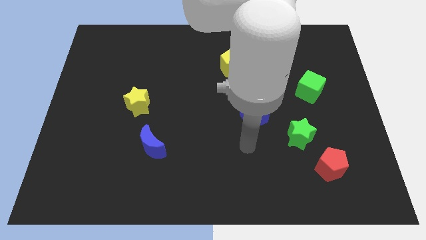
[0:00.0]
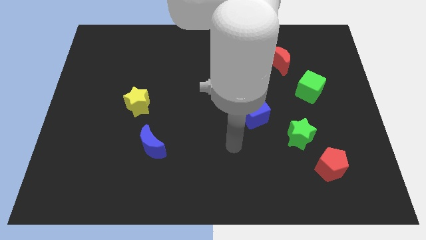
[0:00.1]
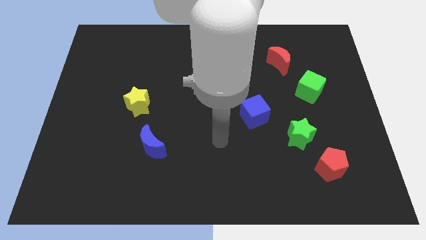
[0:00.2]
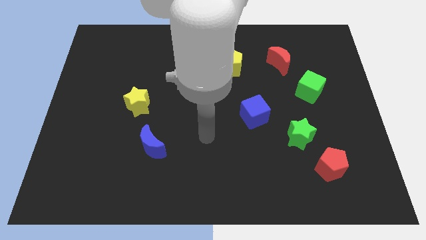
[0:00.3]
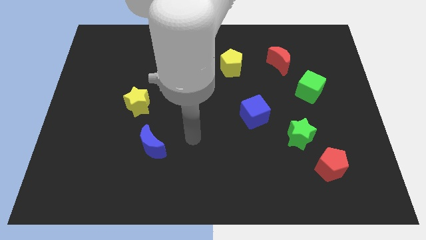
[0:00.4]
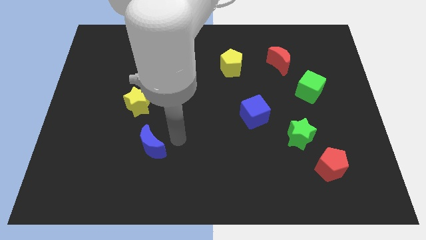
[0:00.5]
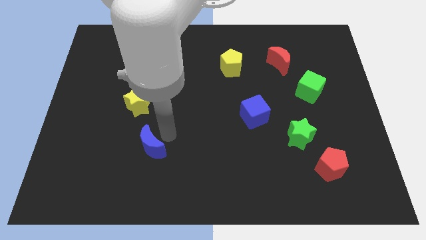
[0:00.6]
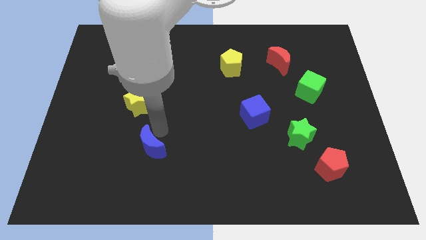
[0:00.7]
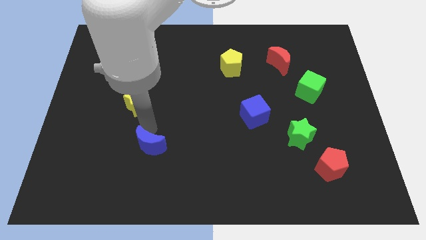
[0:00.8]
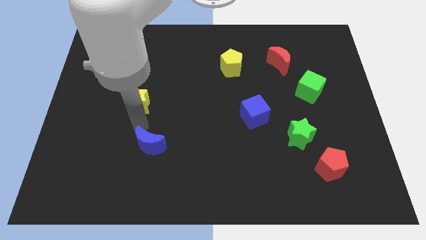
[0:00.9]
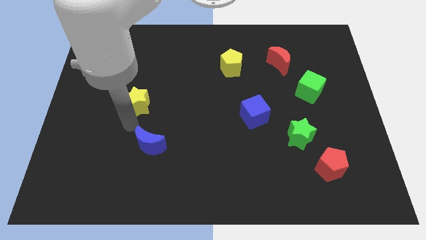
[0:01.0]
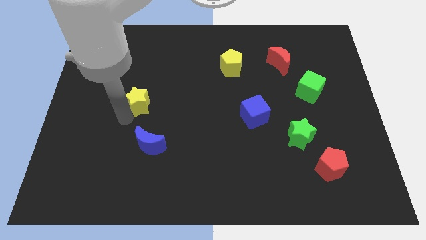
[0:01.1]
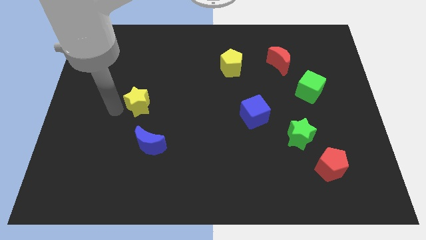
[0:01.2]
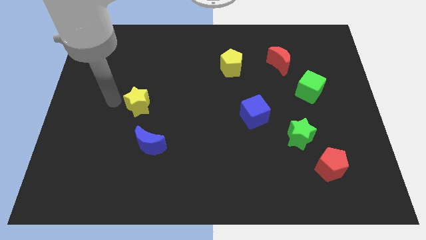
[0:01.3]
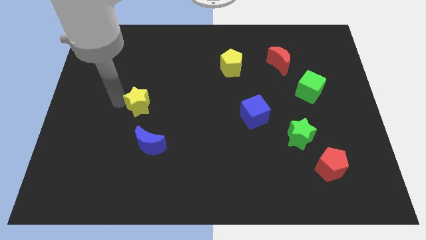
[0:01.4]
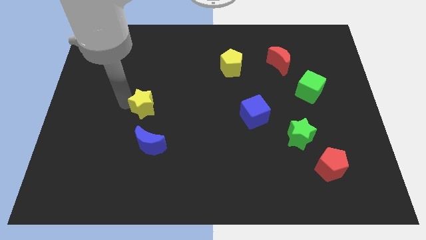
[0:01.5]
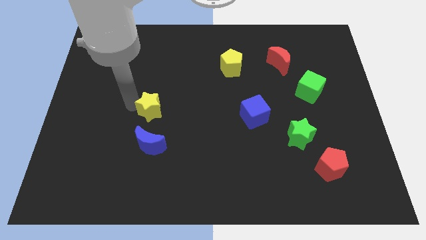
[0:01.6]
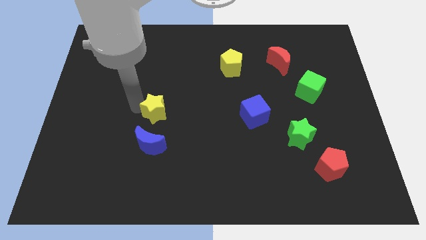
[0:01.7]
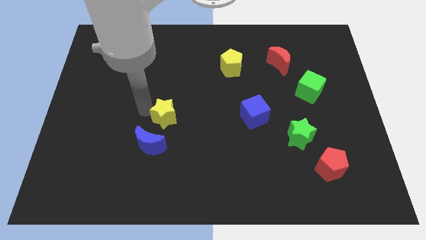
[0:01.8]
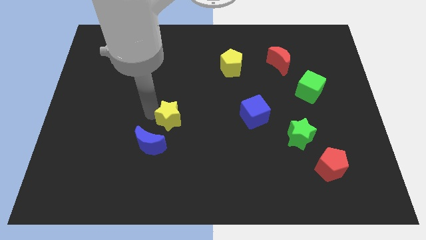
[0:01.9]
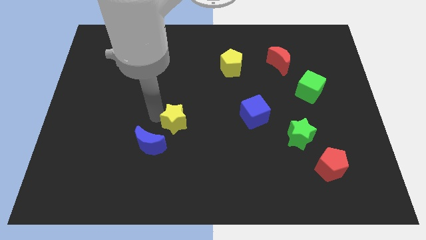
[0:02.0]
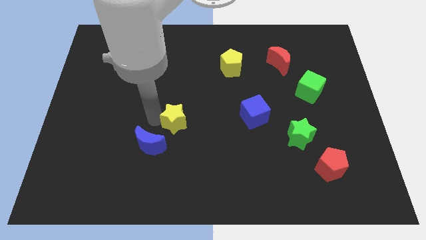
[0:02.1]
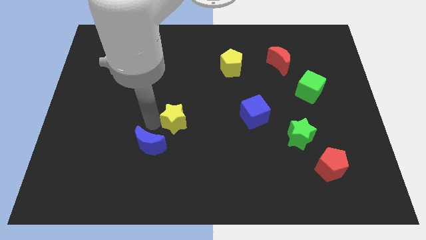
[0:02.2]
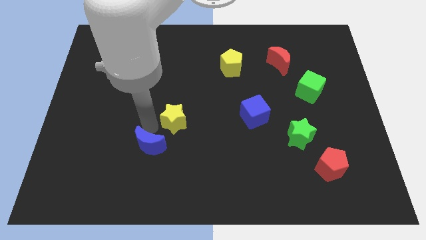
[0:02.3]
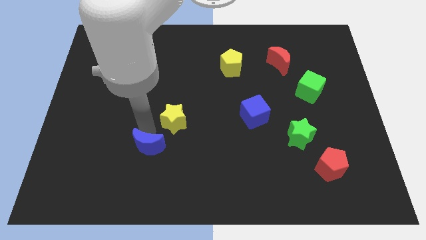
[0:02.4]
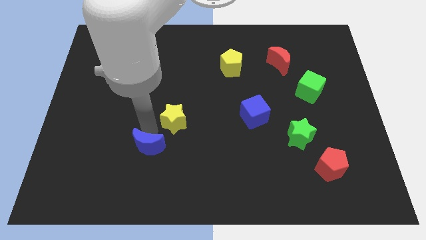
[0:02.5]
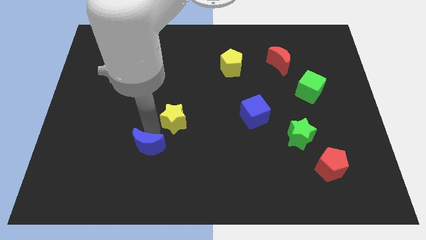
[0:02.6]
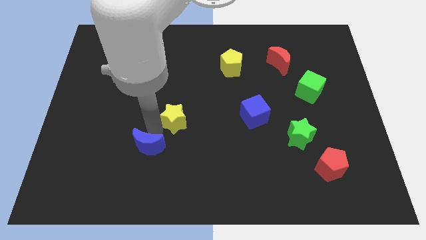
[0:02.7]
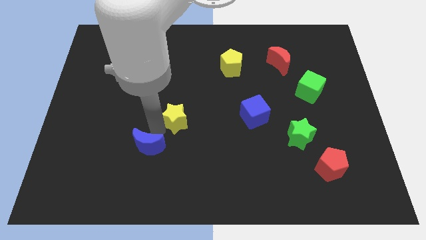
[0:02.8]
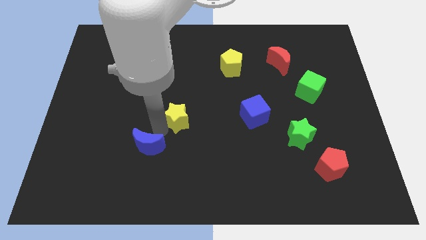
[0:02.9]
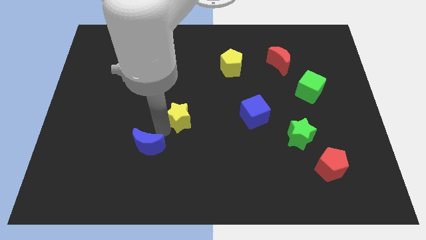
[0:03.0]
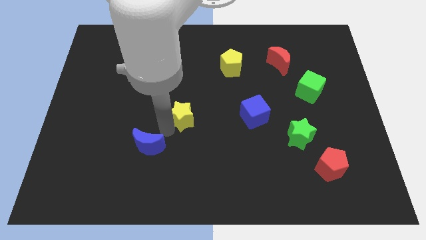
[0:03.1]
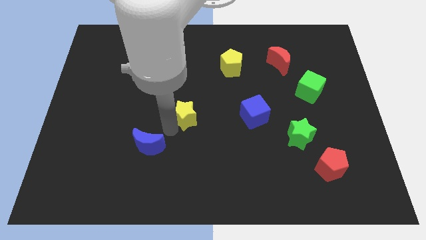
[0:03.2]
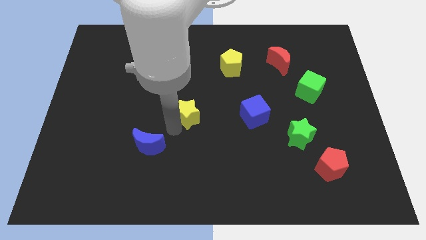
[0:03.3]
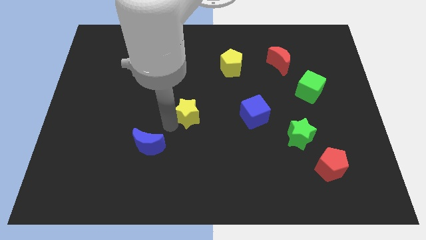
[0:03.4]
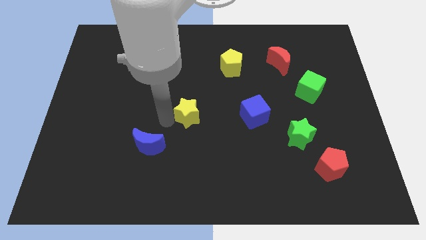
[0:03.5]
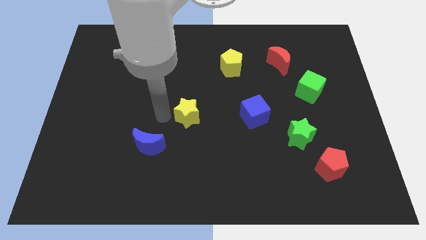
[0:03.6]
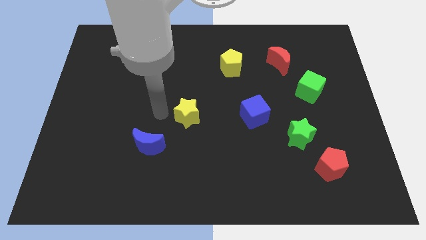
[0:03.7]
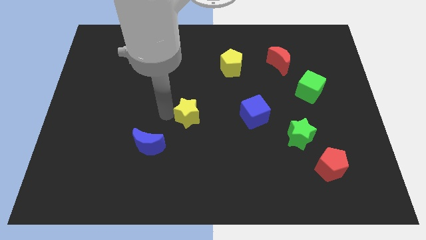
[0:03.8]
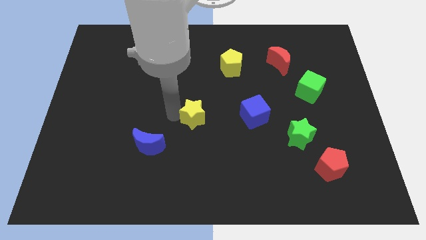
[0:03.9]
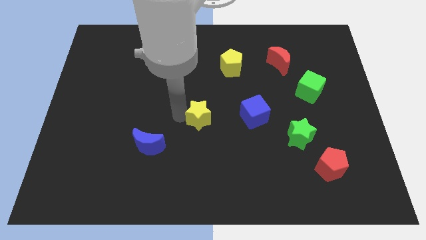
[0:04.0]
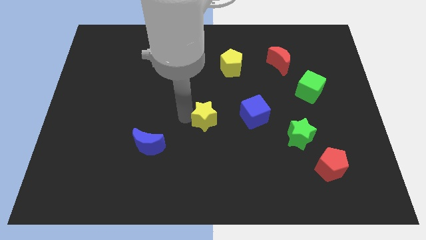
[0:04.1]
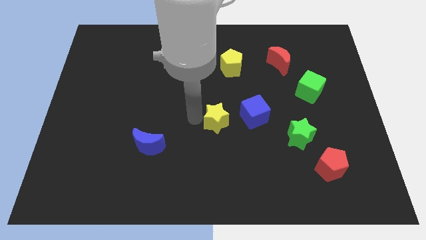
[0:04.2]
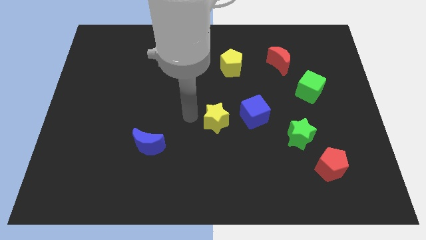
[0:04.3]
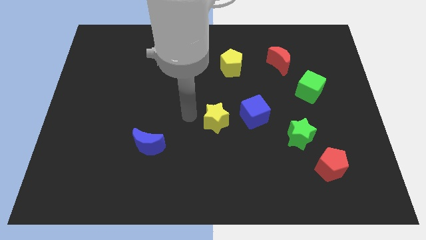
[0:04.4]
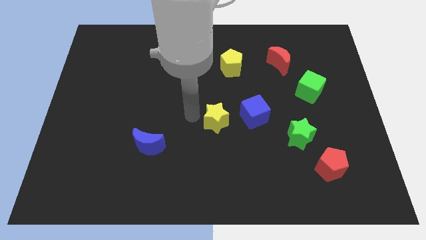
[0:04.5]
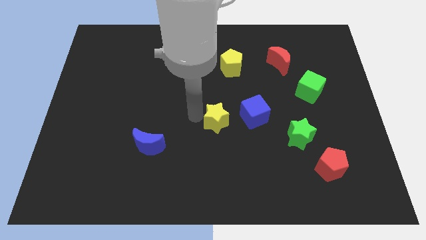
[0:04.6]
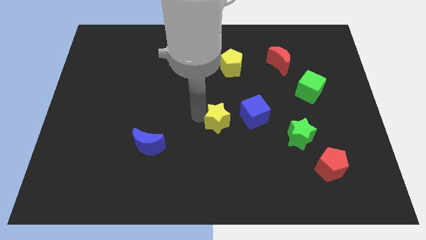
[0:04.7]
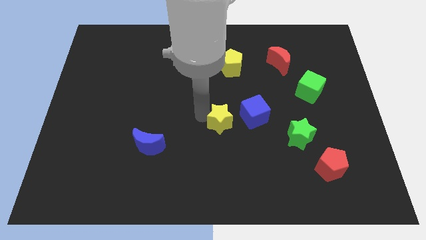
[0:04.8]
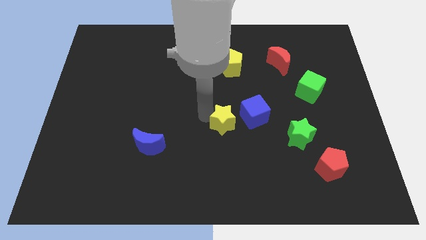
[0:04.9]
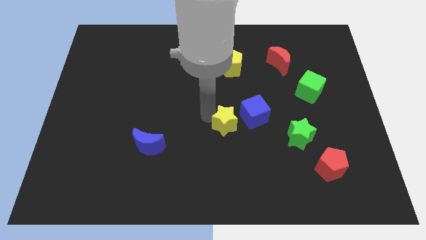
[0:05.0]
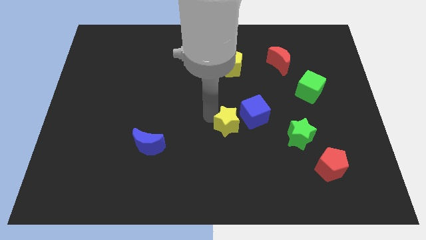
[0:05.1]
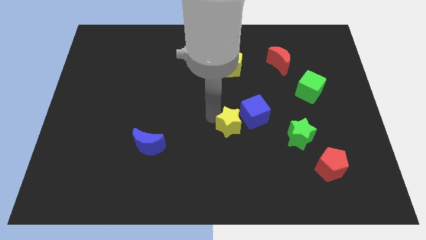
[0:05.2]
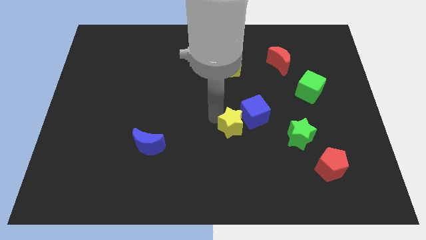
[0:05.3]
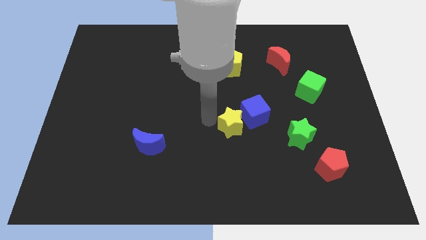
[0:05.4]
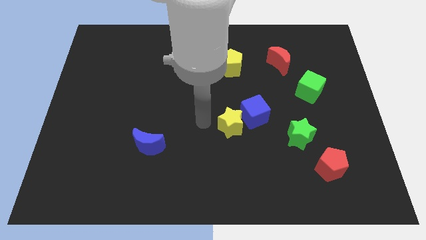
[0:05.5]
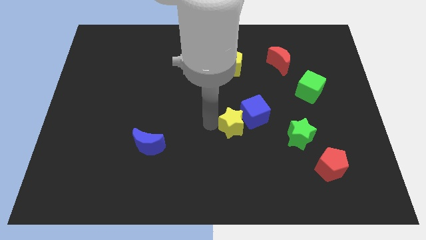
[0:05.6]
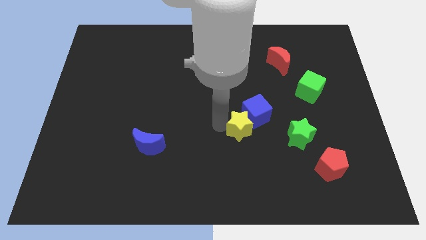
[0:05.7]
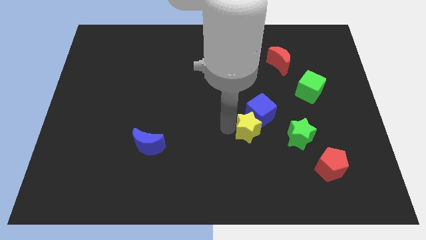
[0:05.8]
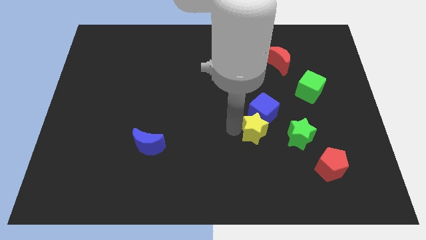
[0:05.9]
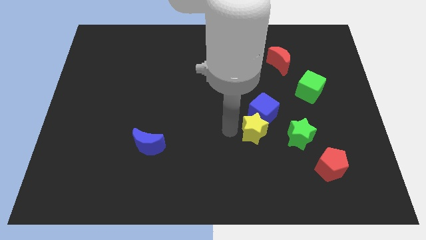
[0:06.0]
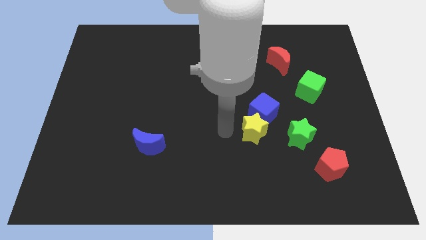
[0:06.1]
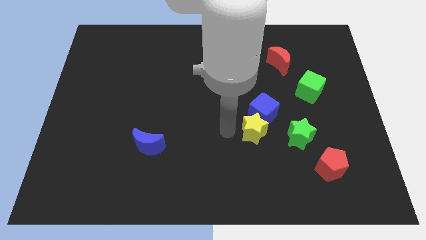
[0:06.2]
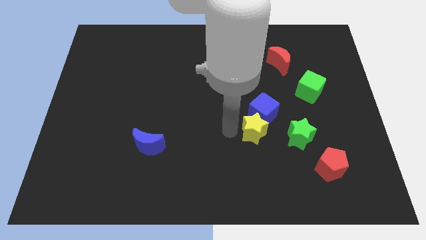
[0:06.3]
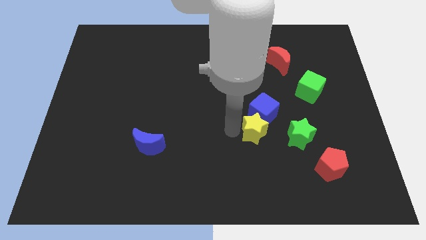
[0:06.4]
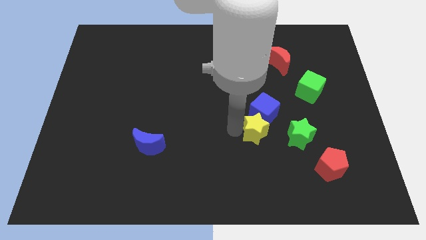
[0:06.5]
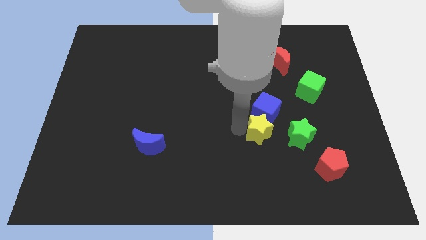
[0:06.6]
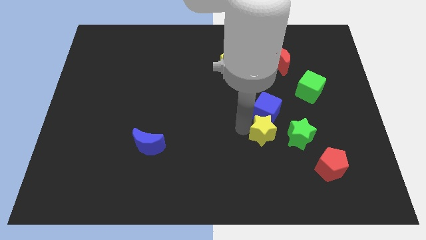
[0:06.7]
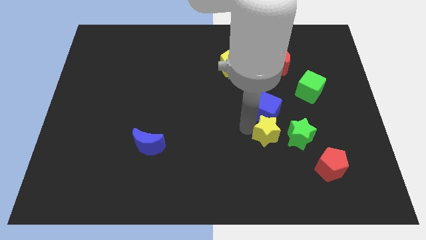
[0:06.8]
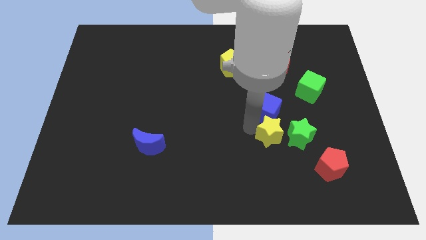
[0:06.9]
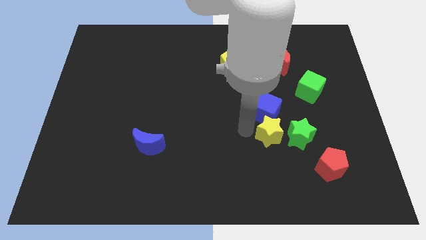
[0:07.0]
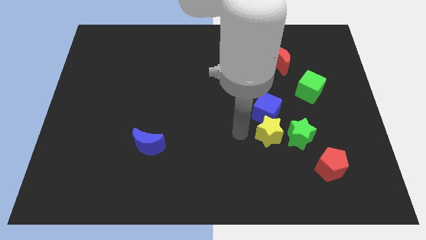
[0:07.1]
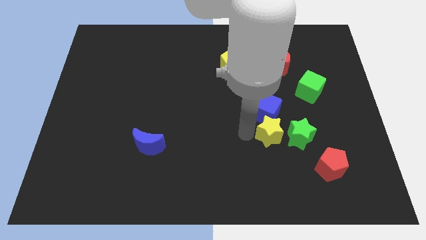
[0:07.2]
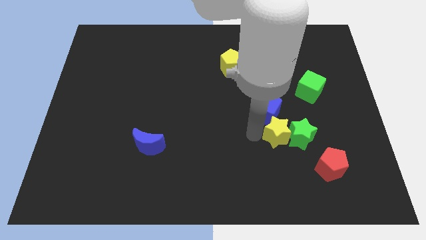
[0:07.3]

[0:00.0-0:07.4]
push the yellow star towards the green star
